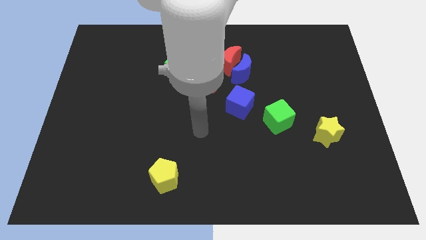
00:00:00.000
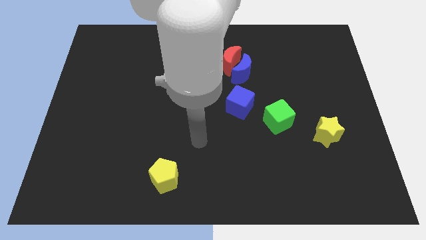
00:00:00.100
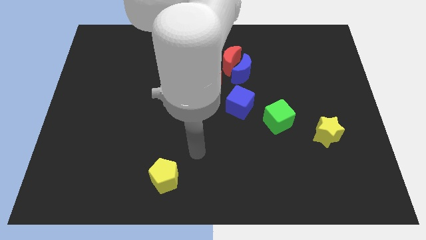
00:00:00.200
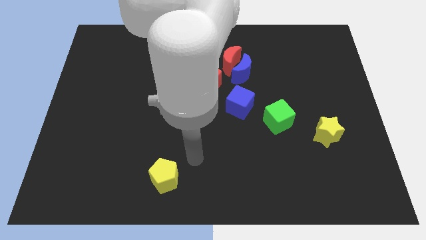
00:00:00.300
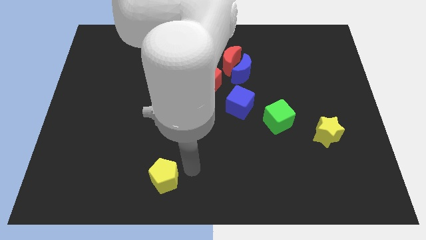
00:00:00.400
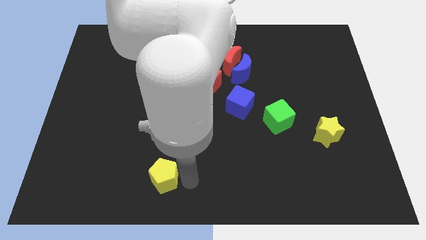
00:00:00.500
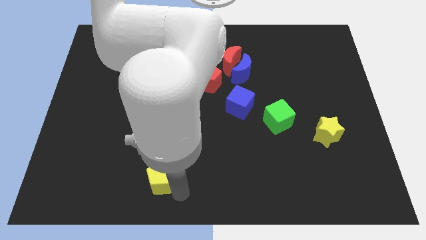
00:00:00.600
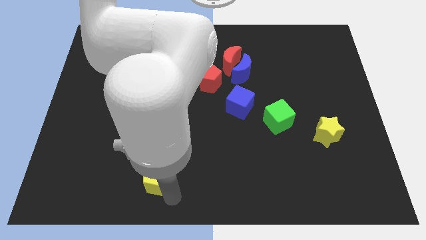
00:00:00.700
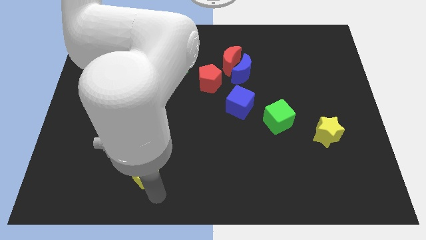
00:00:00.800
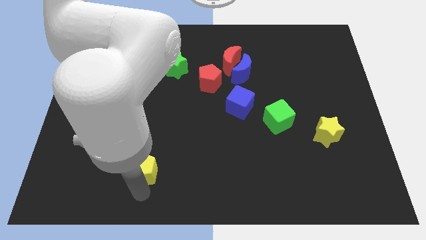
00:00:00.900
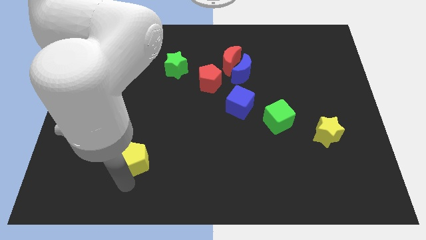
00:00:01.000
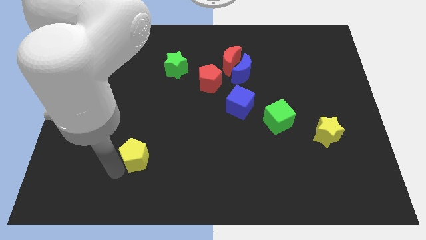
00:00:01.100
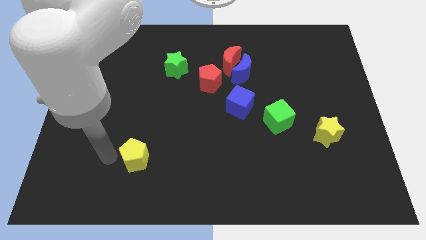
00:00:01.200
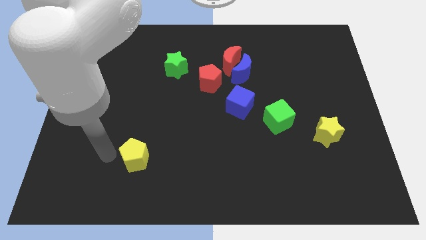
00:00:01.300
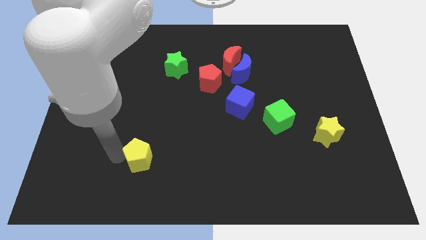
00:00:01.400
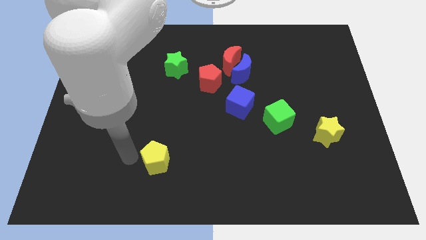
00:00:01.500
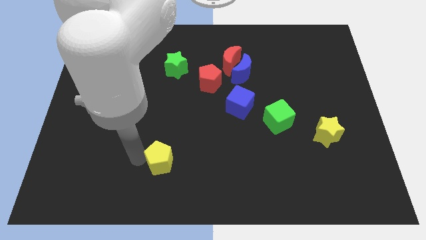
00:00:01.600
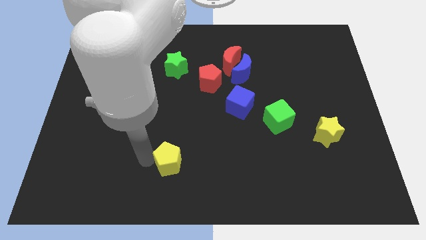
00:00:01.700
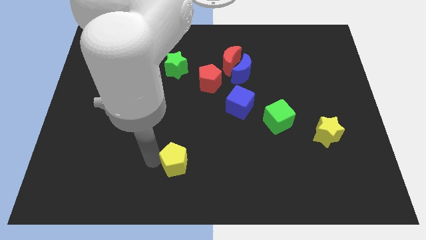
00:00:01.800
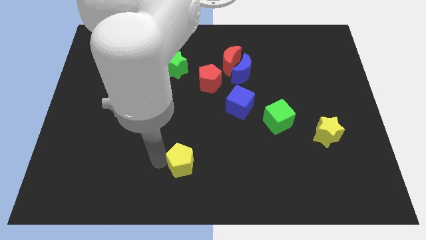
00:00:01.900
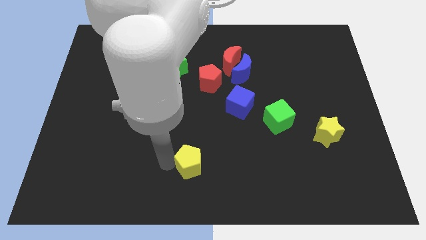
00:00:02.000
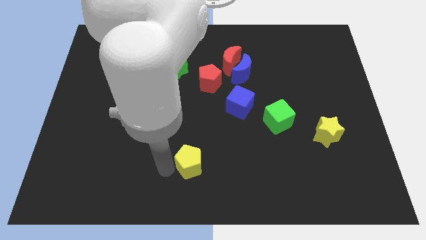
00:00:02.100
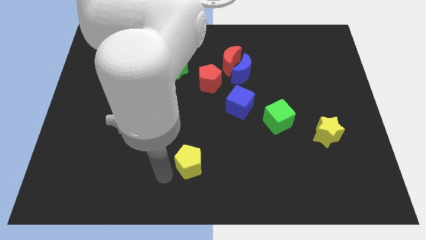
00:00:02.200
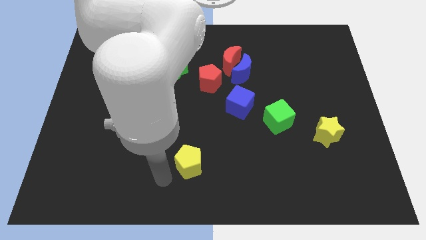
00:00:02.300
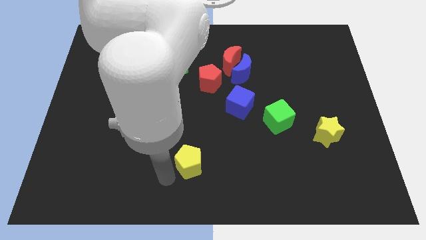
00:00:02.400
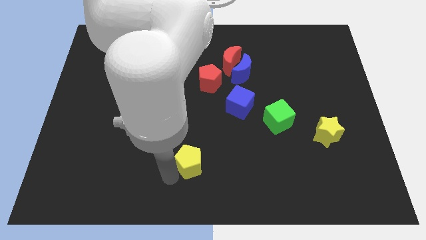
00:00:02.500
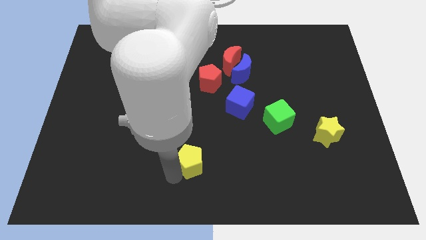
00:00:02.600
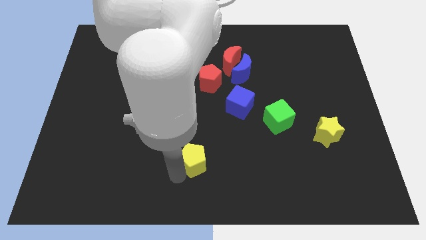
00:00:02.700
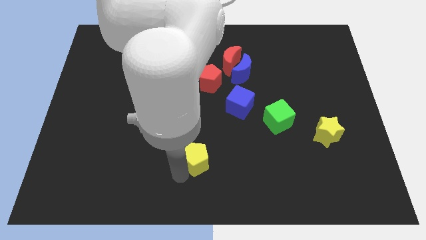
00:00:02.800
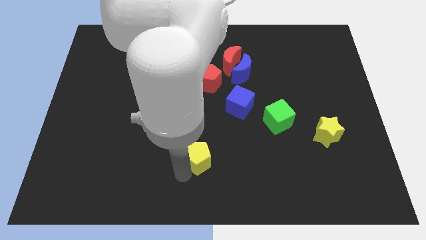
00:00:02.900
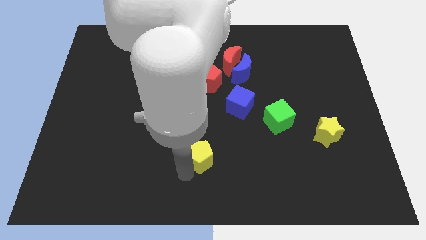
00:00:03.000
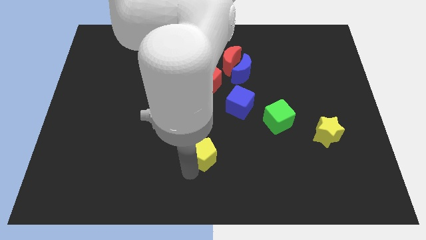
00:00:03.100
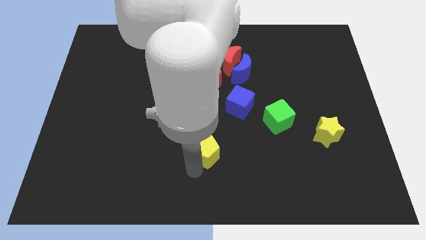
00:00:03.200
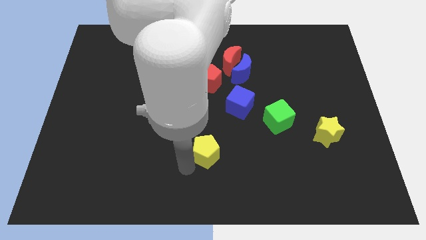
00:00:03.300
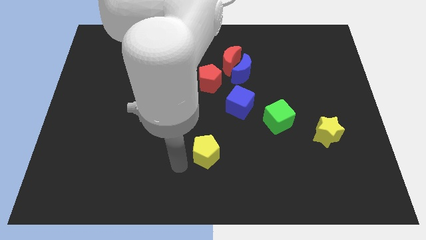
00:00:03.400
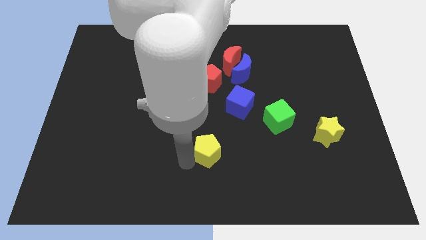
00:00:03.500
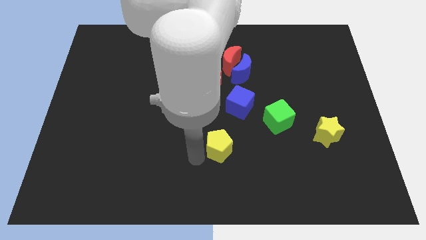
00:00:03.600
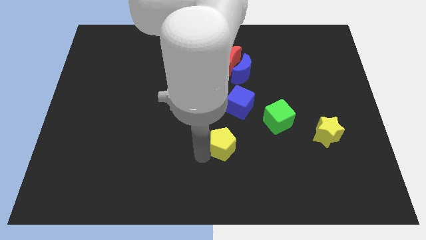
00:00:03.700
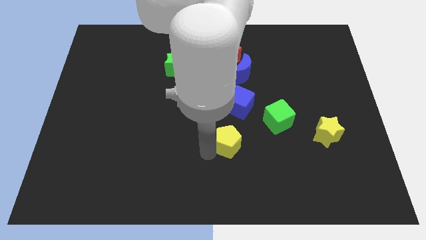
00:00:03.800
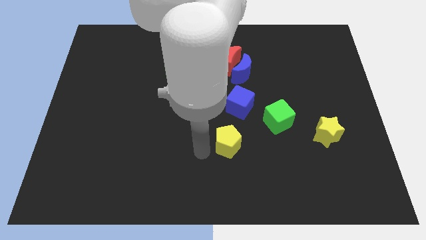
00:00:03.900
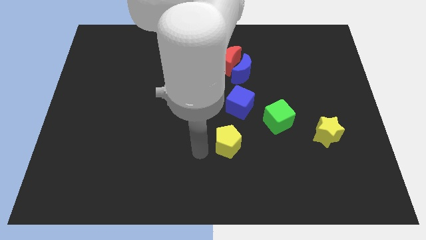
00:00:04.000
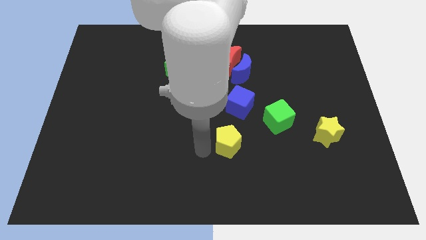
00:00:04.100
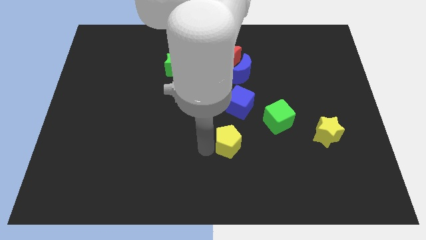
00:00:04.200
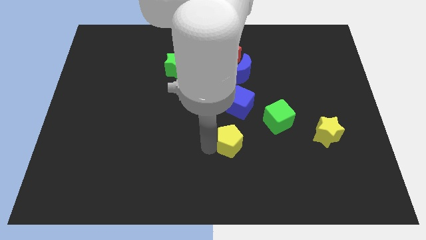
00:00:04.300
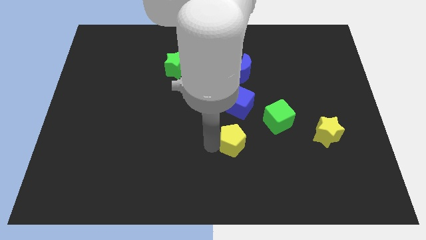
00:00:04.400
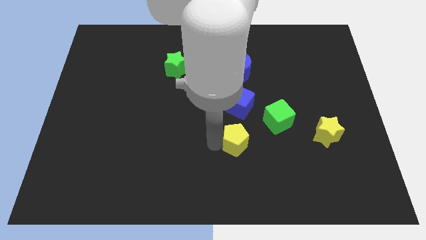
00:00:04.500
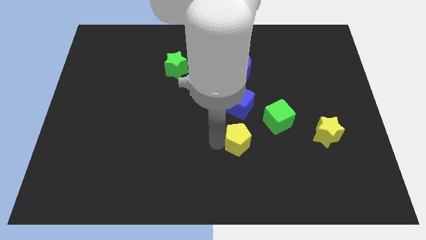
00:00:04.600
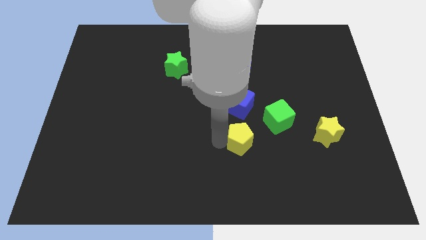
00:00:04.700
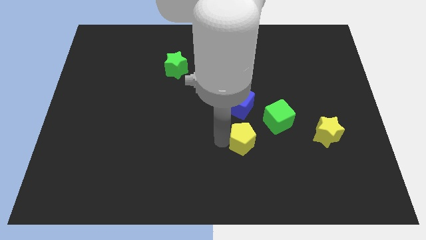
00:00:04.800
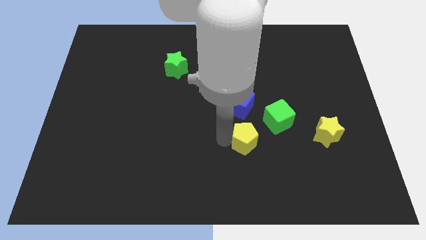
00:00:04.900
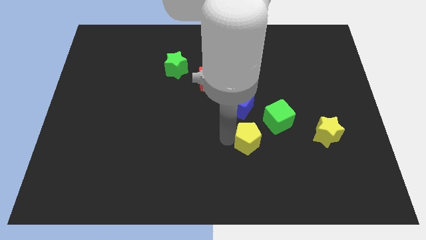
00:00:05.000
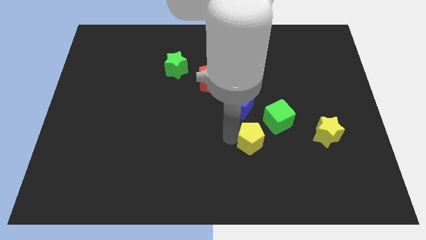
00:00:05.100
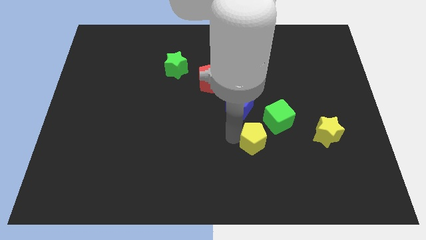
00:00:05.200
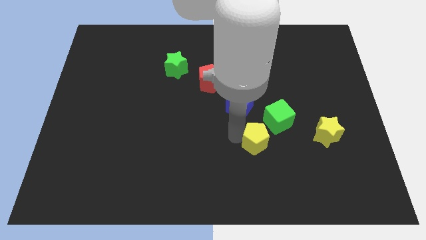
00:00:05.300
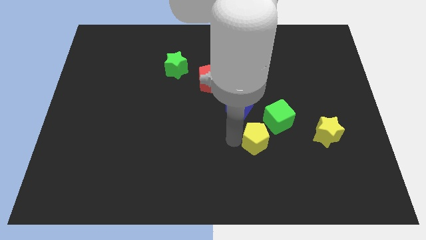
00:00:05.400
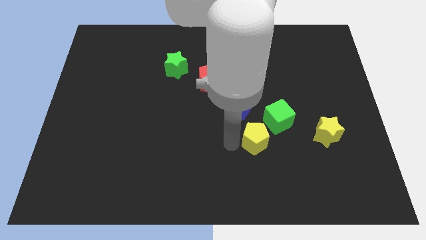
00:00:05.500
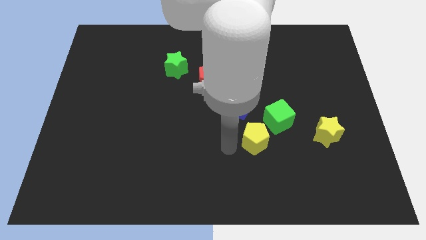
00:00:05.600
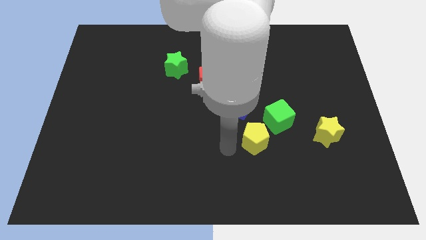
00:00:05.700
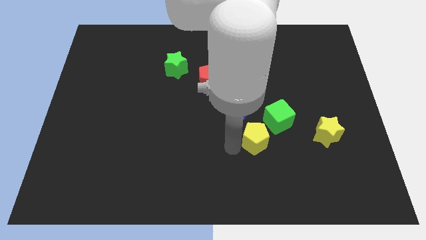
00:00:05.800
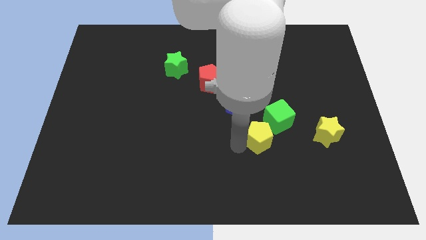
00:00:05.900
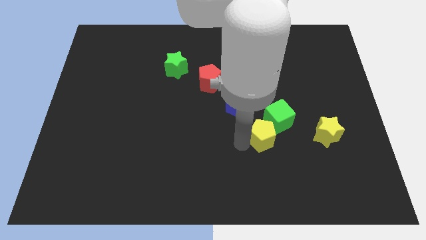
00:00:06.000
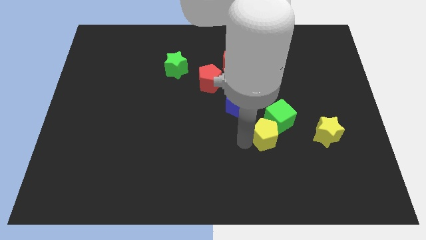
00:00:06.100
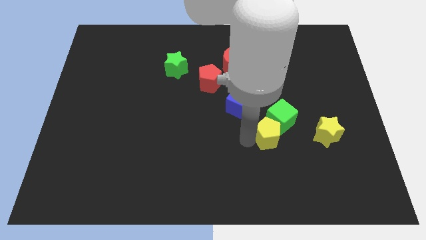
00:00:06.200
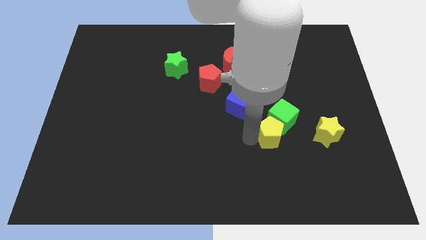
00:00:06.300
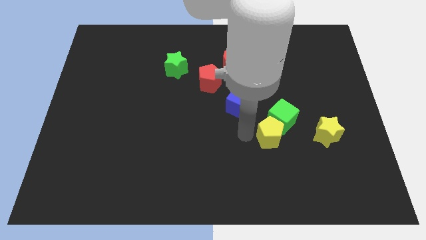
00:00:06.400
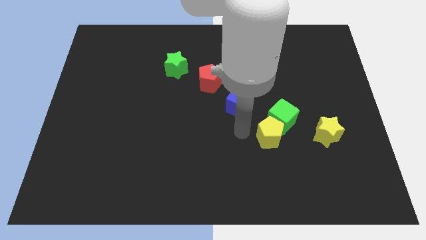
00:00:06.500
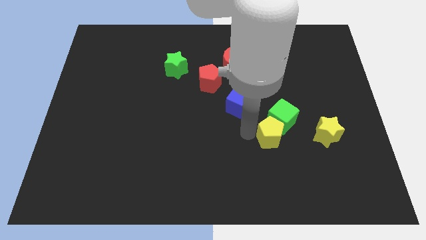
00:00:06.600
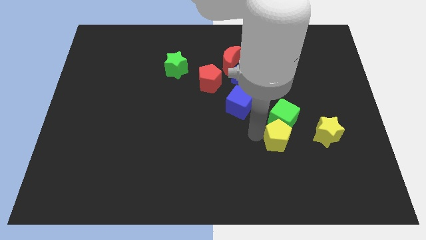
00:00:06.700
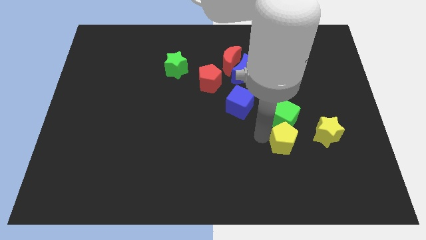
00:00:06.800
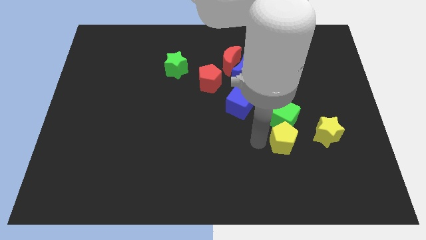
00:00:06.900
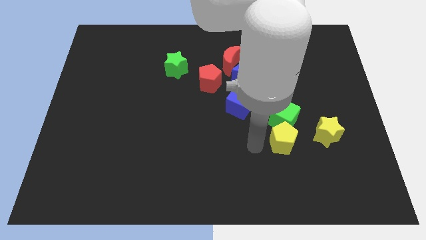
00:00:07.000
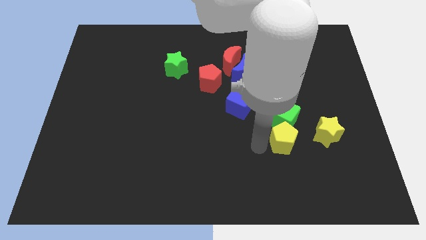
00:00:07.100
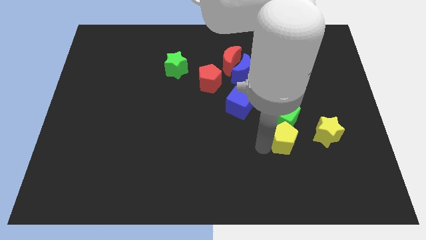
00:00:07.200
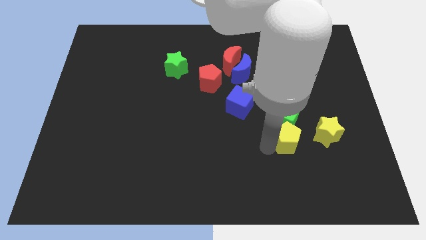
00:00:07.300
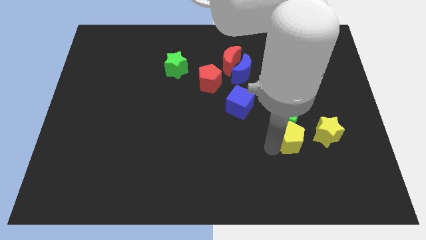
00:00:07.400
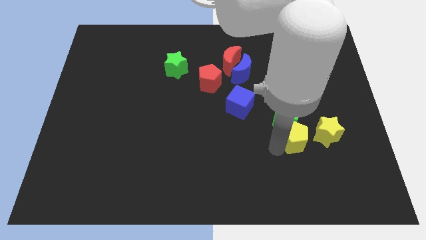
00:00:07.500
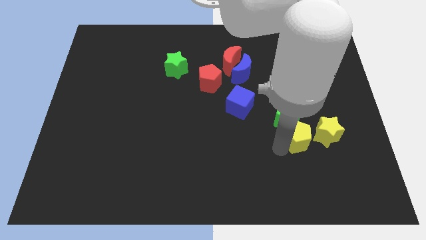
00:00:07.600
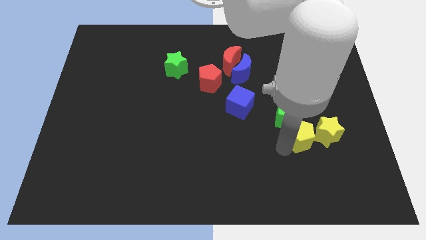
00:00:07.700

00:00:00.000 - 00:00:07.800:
push the yellow pentagon next to the yellow star
